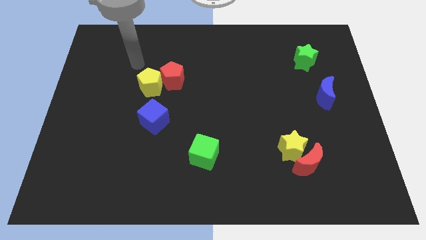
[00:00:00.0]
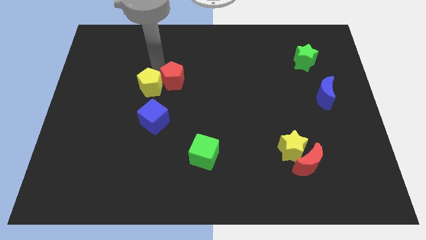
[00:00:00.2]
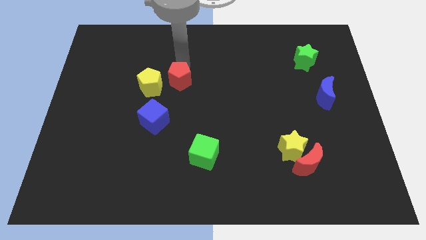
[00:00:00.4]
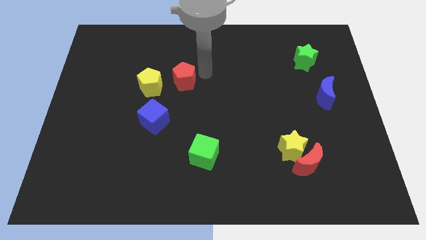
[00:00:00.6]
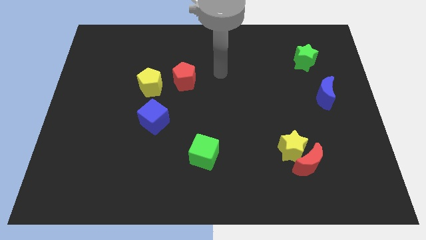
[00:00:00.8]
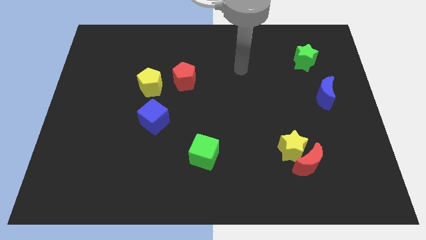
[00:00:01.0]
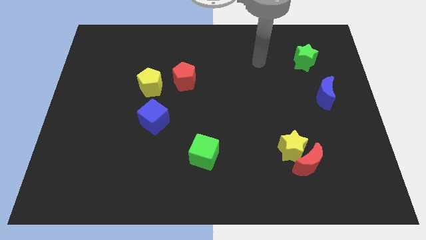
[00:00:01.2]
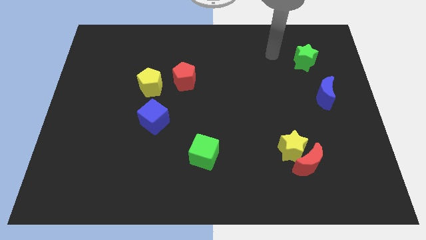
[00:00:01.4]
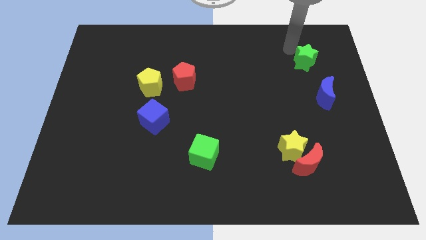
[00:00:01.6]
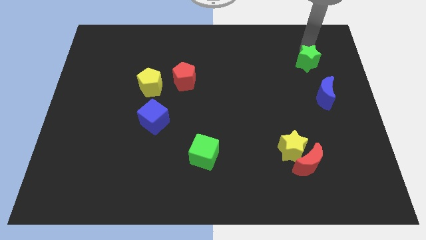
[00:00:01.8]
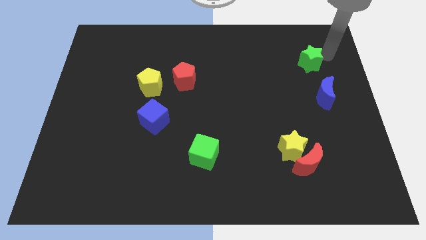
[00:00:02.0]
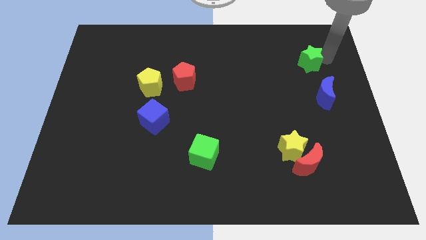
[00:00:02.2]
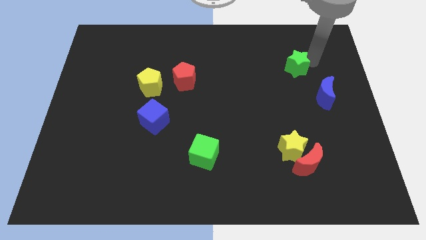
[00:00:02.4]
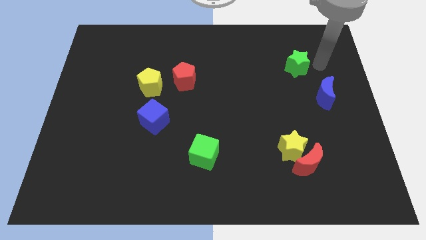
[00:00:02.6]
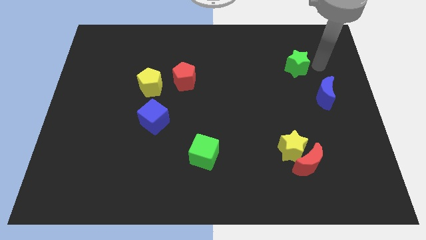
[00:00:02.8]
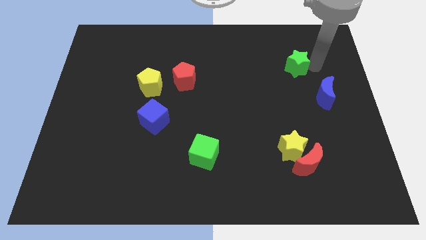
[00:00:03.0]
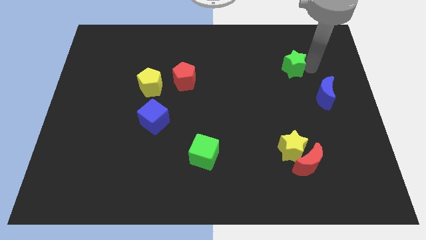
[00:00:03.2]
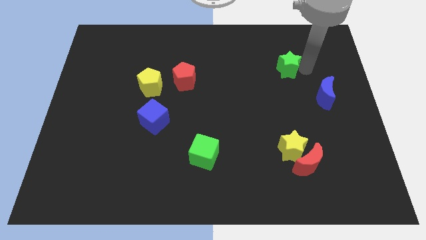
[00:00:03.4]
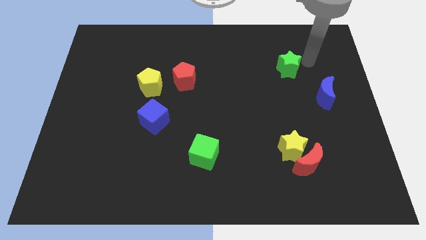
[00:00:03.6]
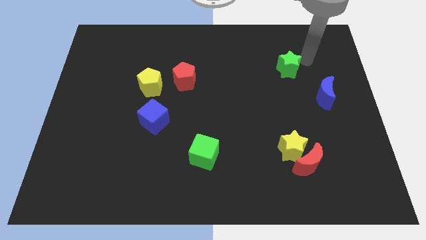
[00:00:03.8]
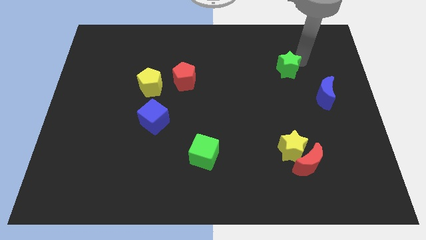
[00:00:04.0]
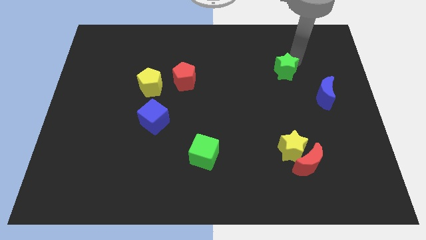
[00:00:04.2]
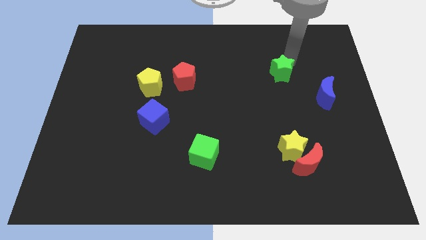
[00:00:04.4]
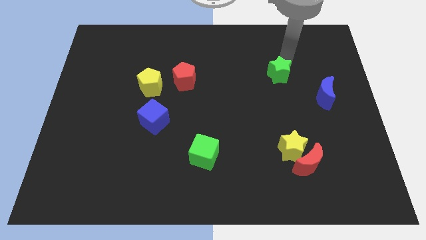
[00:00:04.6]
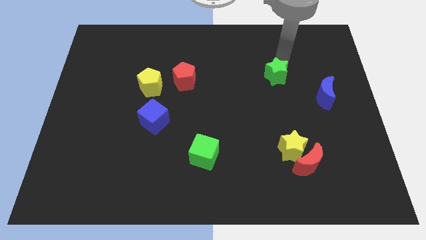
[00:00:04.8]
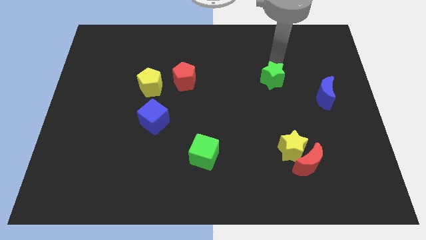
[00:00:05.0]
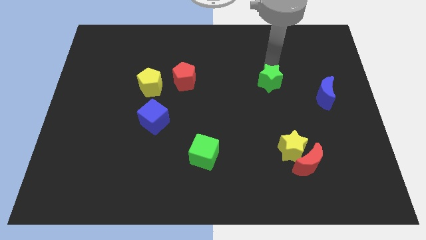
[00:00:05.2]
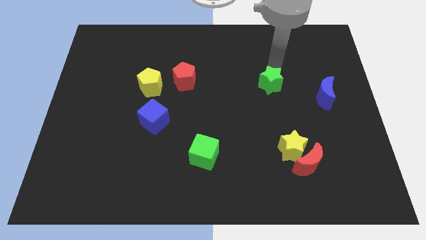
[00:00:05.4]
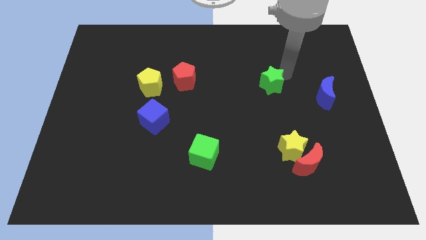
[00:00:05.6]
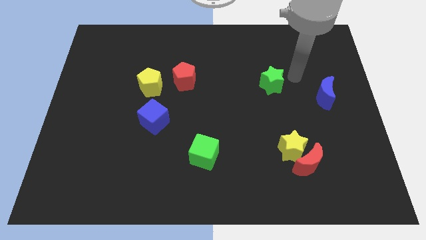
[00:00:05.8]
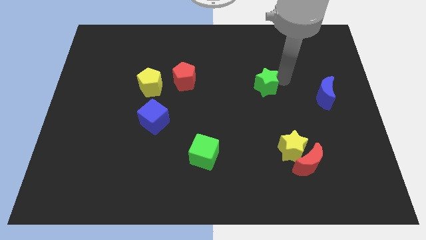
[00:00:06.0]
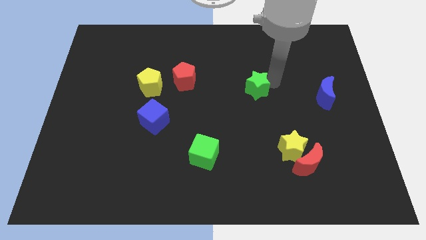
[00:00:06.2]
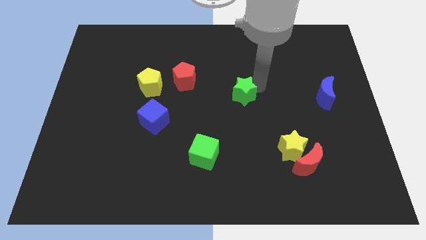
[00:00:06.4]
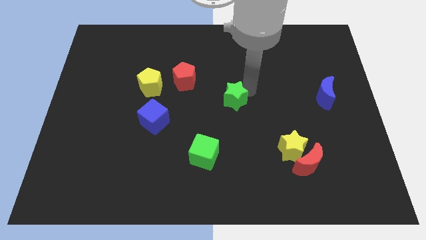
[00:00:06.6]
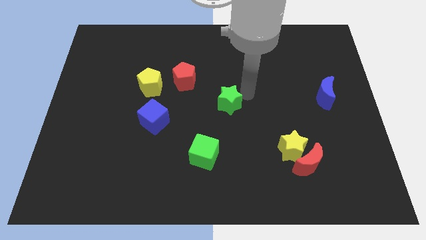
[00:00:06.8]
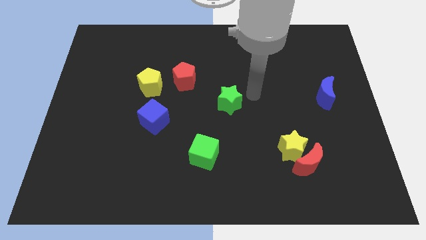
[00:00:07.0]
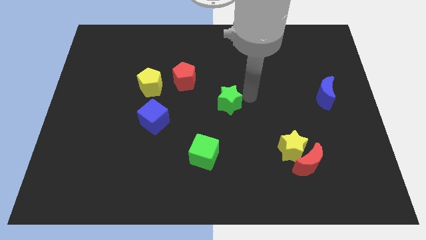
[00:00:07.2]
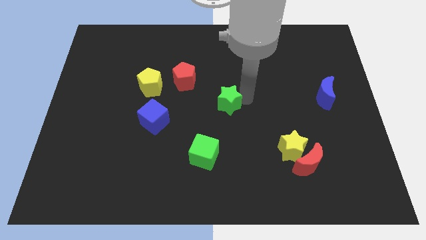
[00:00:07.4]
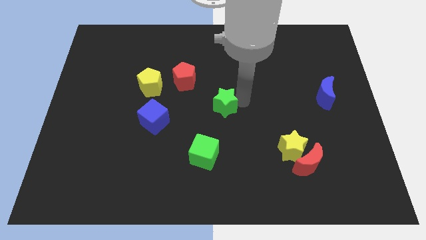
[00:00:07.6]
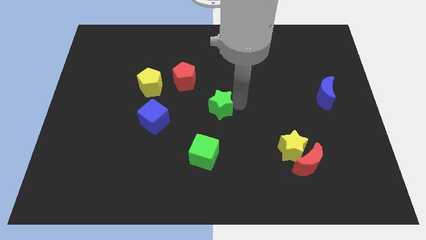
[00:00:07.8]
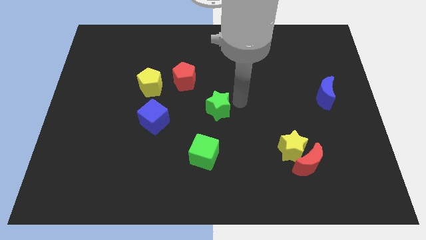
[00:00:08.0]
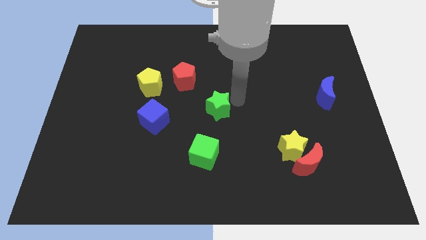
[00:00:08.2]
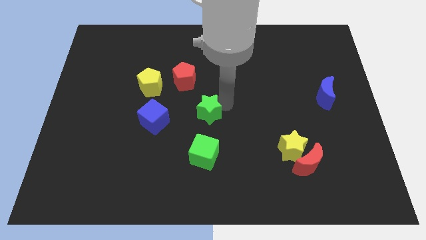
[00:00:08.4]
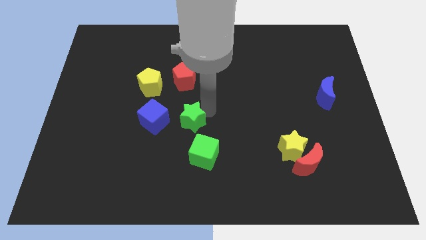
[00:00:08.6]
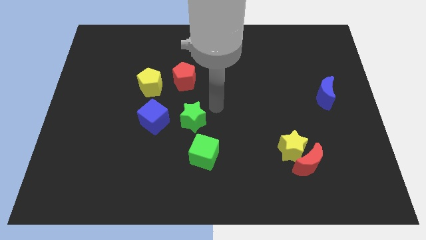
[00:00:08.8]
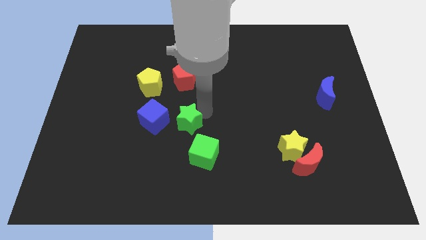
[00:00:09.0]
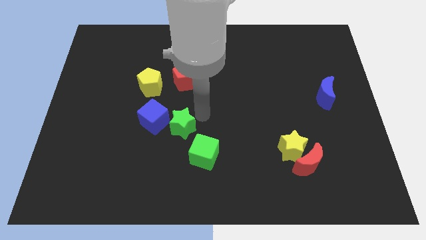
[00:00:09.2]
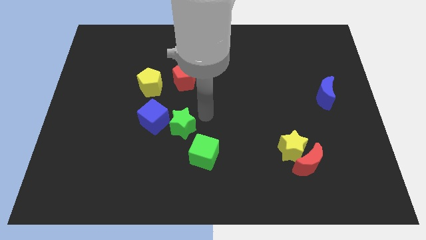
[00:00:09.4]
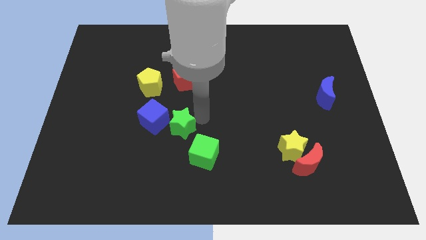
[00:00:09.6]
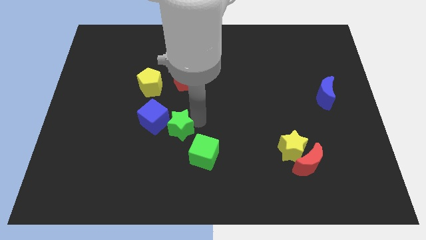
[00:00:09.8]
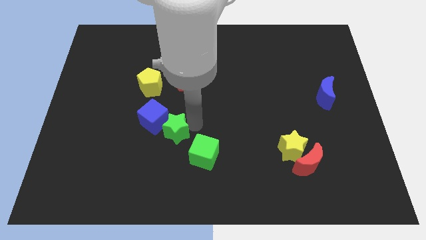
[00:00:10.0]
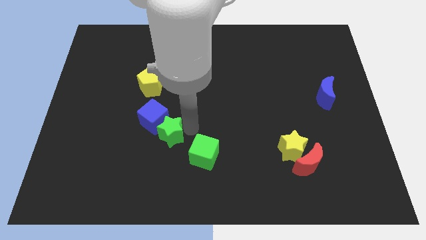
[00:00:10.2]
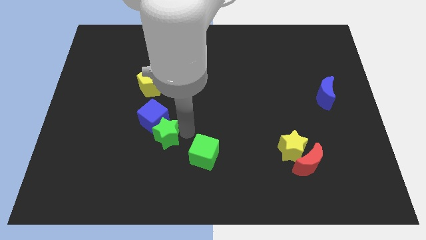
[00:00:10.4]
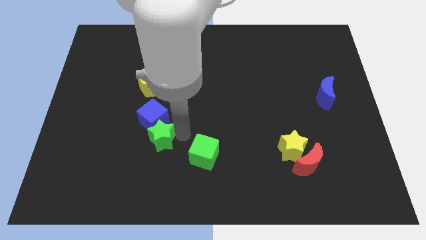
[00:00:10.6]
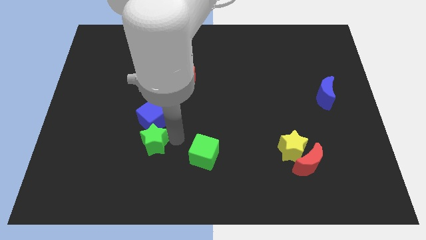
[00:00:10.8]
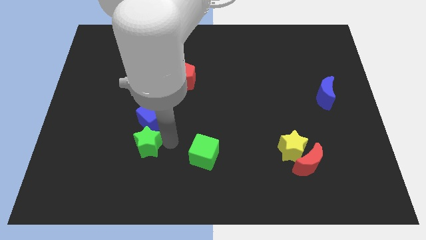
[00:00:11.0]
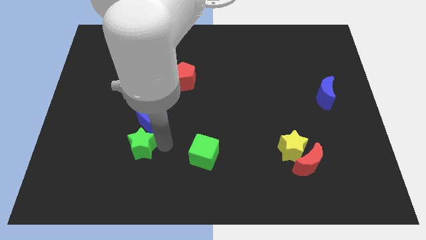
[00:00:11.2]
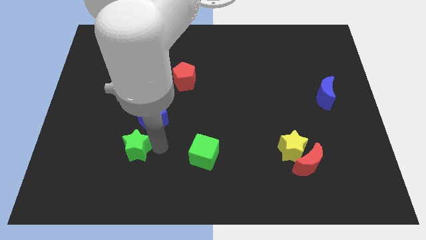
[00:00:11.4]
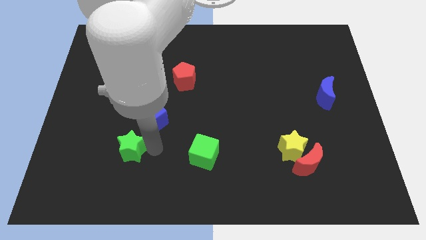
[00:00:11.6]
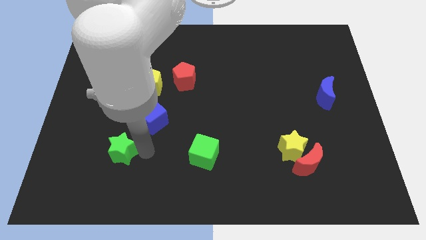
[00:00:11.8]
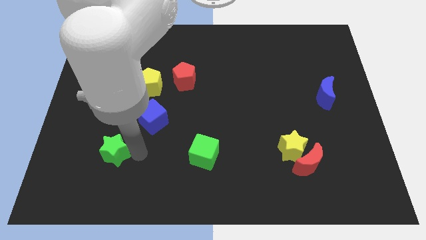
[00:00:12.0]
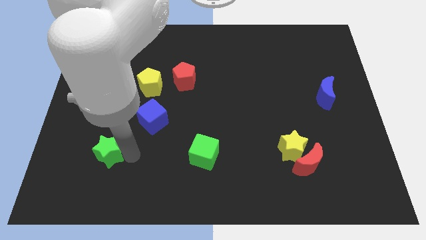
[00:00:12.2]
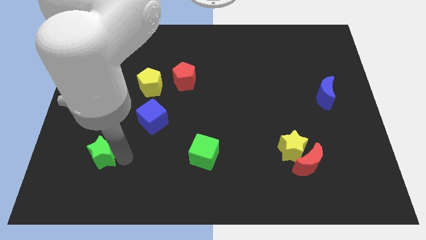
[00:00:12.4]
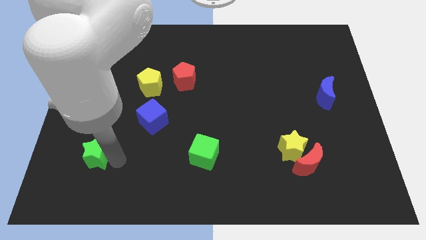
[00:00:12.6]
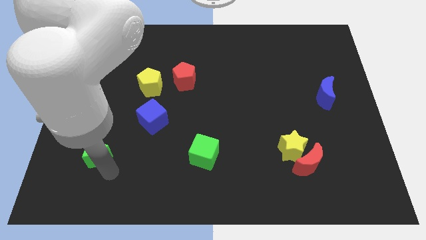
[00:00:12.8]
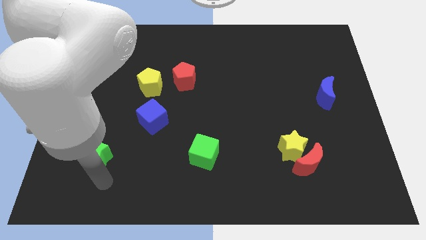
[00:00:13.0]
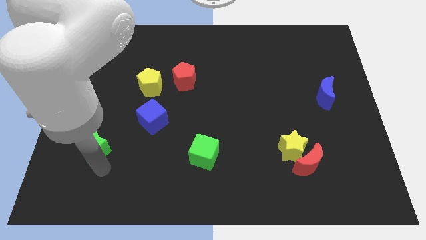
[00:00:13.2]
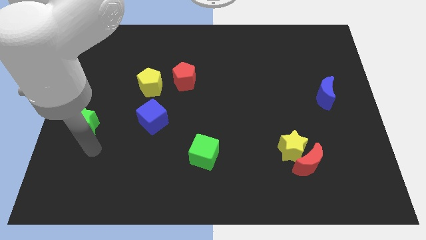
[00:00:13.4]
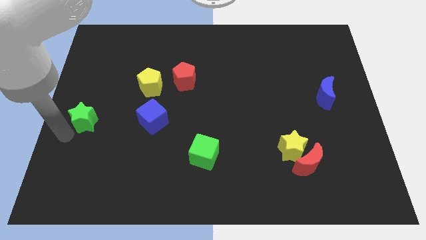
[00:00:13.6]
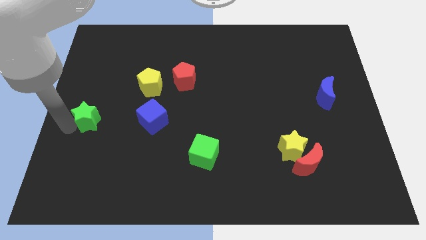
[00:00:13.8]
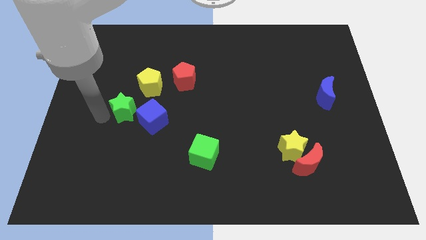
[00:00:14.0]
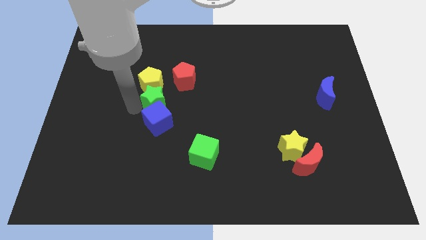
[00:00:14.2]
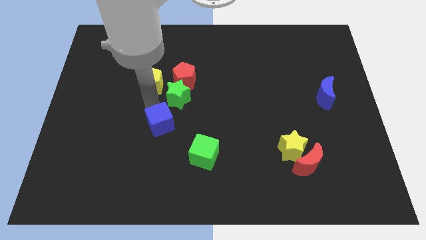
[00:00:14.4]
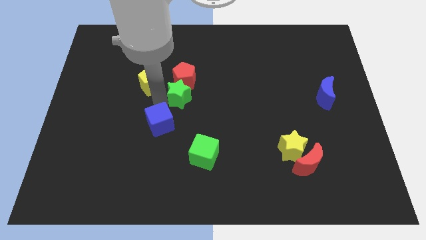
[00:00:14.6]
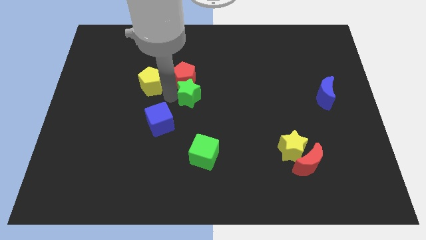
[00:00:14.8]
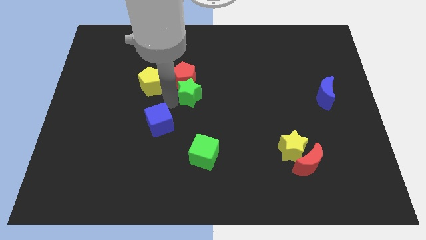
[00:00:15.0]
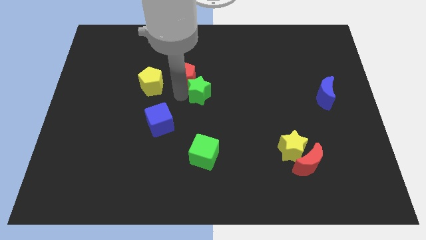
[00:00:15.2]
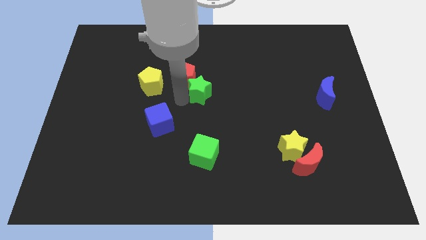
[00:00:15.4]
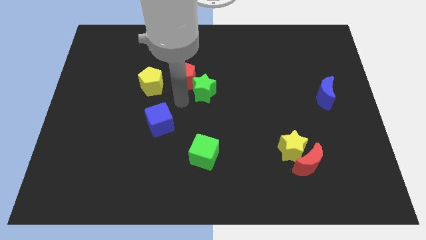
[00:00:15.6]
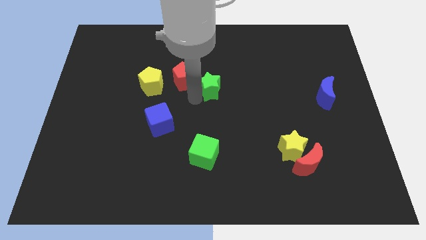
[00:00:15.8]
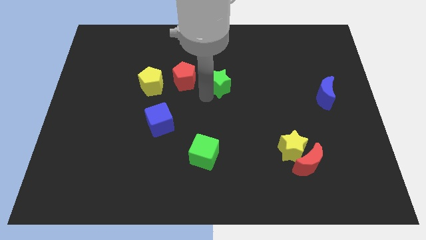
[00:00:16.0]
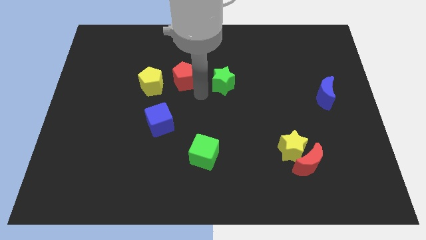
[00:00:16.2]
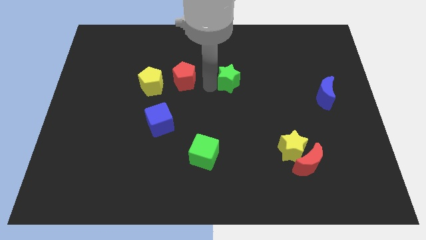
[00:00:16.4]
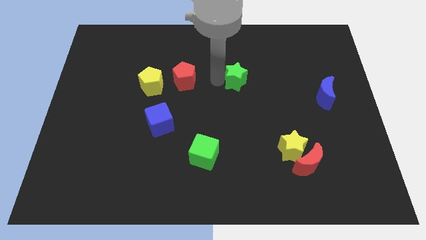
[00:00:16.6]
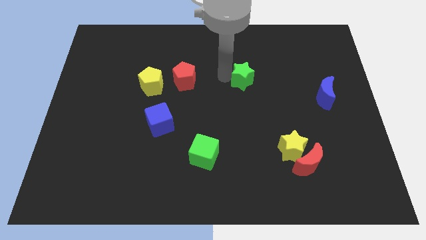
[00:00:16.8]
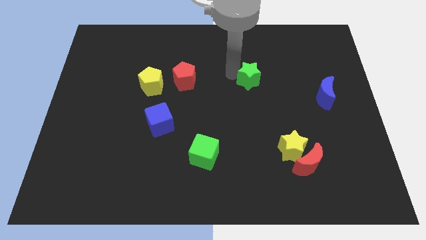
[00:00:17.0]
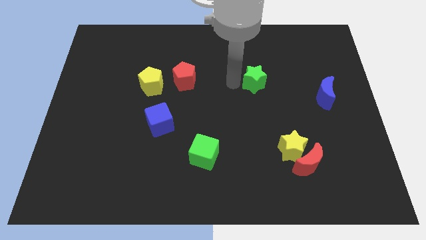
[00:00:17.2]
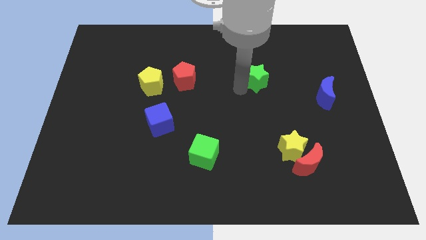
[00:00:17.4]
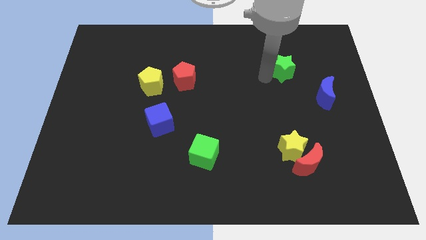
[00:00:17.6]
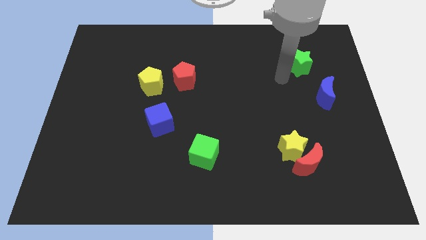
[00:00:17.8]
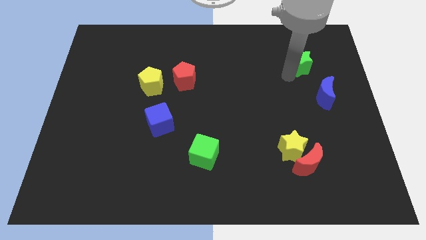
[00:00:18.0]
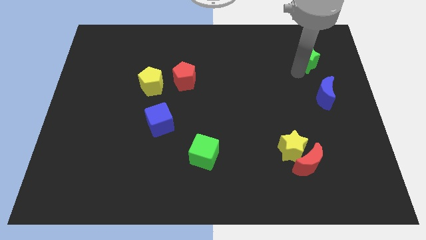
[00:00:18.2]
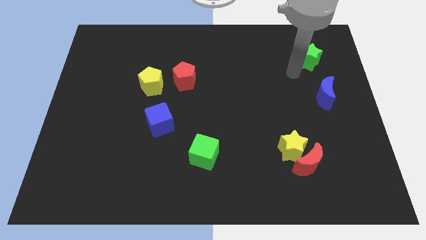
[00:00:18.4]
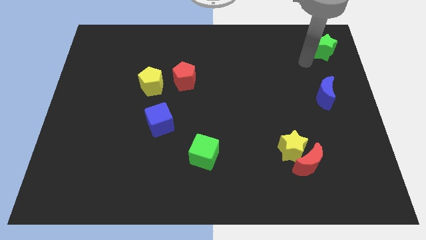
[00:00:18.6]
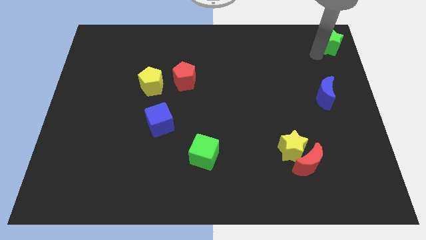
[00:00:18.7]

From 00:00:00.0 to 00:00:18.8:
move the green star to the top right corner
